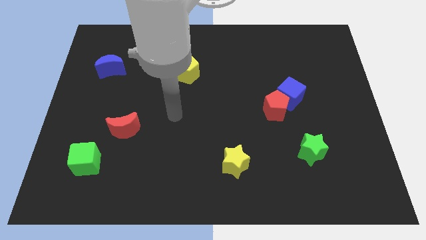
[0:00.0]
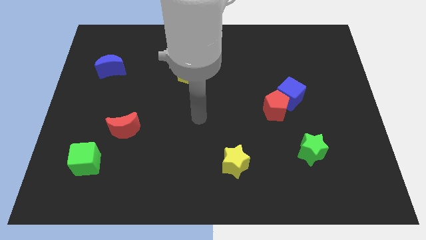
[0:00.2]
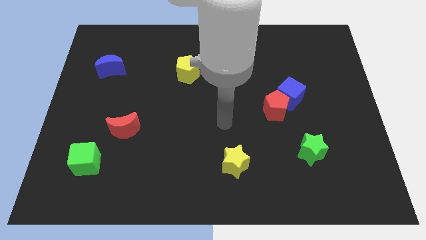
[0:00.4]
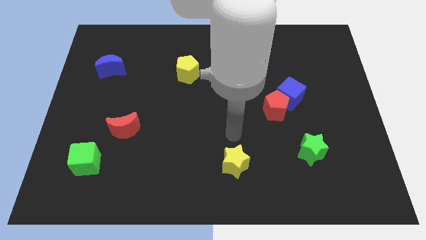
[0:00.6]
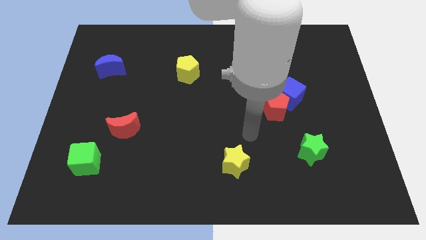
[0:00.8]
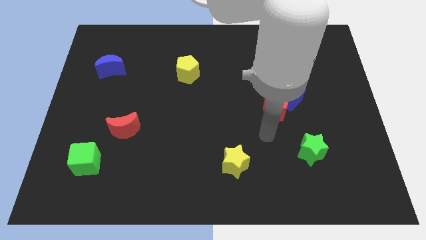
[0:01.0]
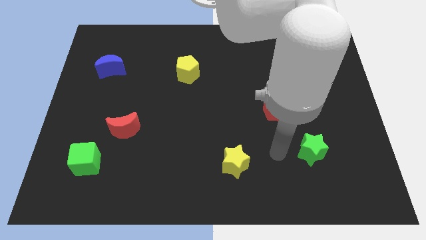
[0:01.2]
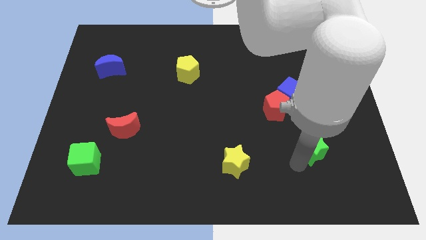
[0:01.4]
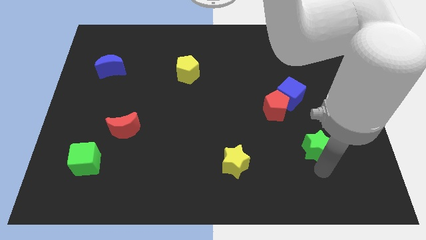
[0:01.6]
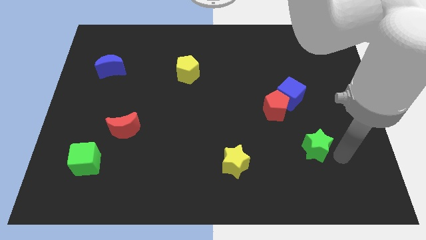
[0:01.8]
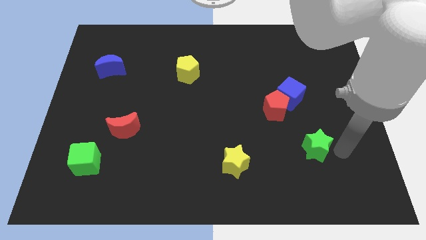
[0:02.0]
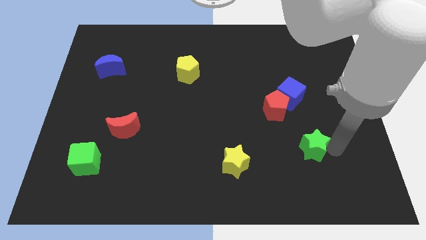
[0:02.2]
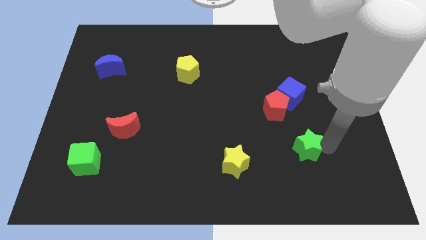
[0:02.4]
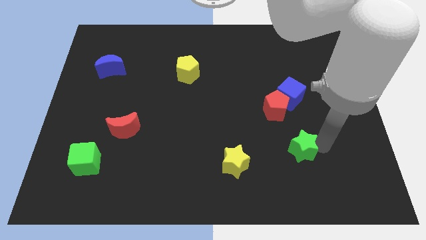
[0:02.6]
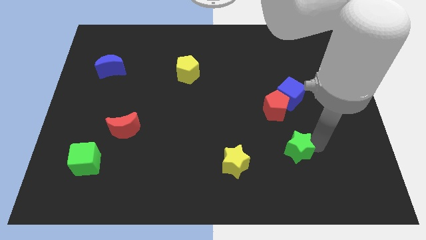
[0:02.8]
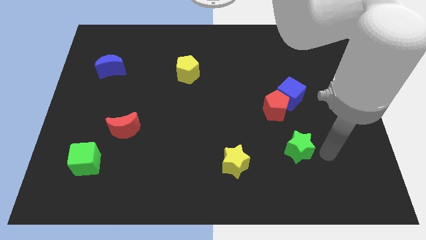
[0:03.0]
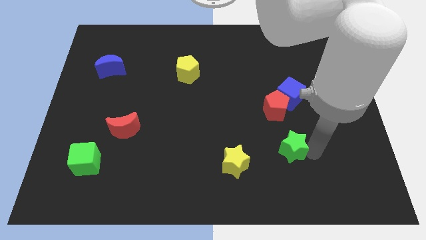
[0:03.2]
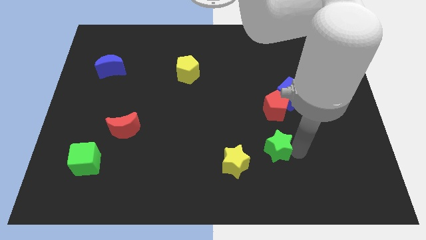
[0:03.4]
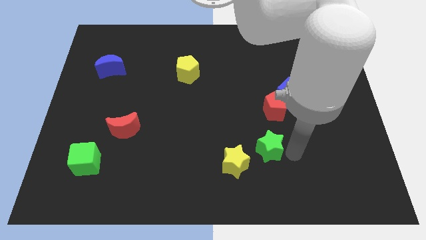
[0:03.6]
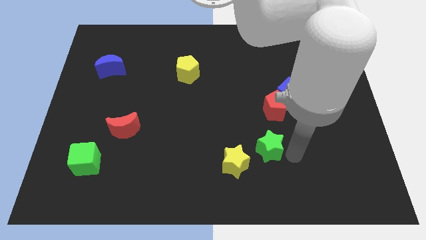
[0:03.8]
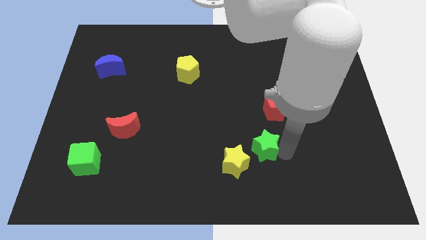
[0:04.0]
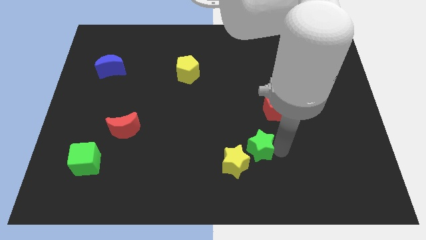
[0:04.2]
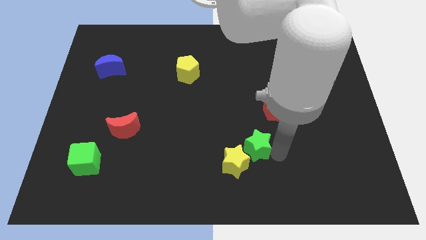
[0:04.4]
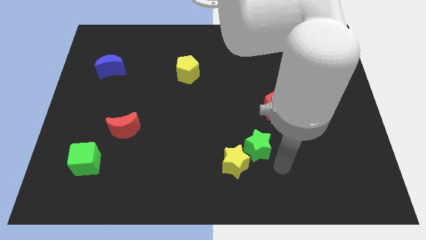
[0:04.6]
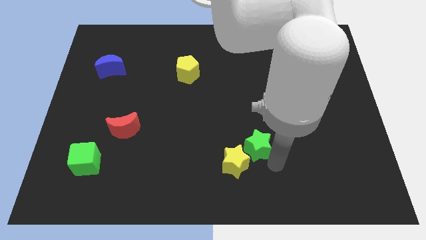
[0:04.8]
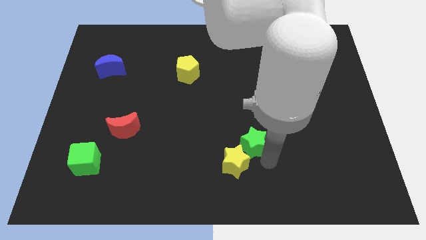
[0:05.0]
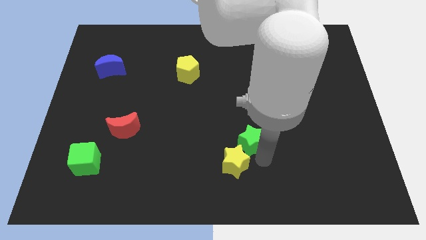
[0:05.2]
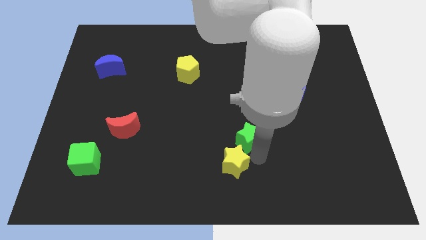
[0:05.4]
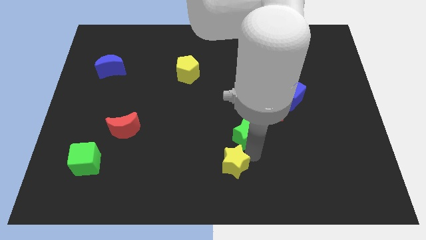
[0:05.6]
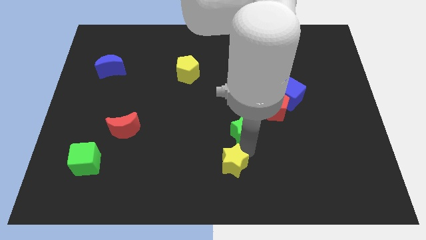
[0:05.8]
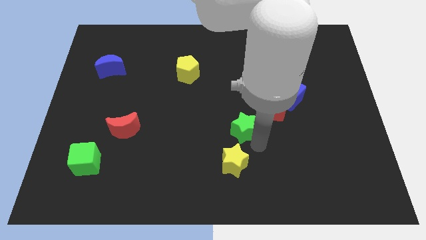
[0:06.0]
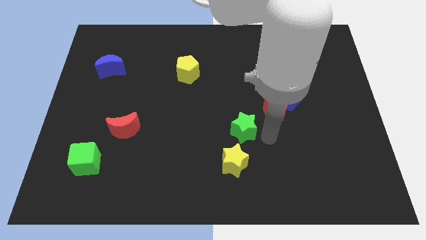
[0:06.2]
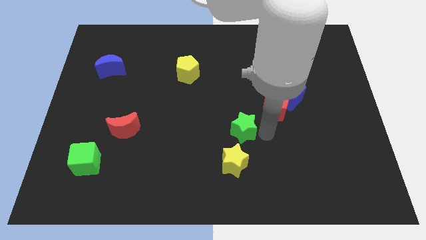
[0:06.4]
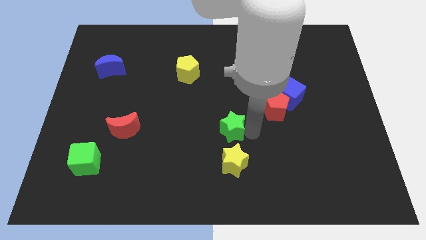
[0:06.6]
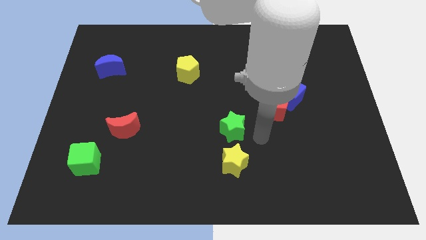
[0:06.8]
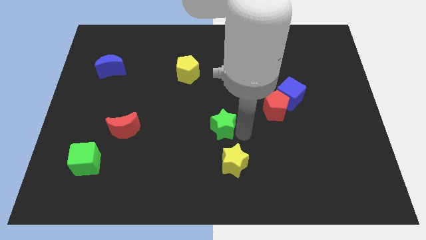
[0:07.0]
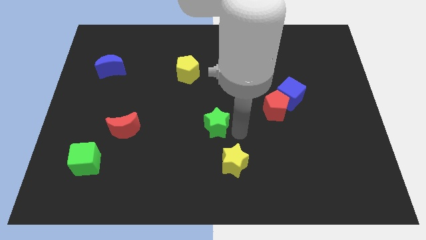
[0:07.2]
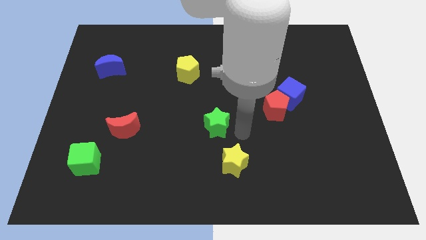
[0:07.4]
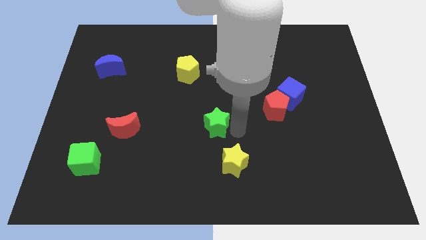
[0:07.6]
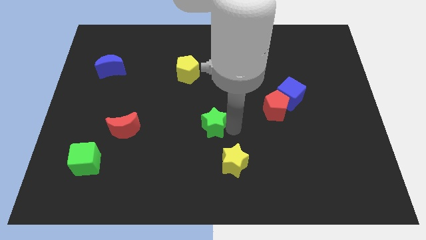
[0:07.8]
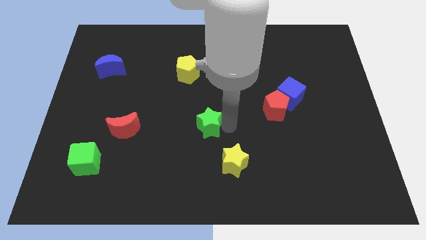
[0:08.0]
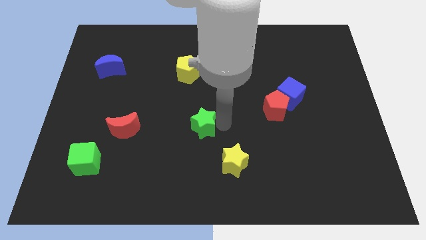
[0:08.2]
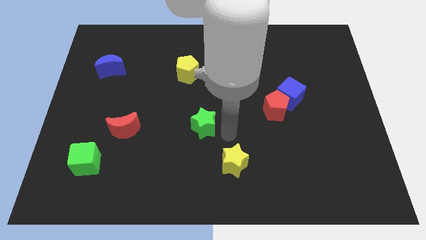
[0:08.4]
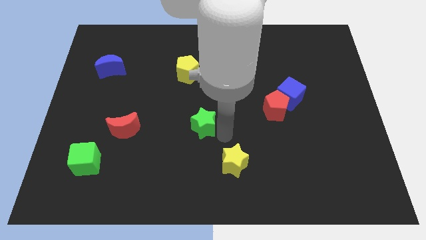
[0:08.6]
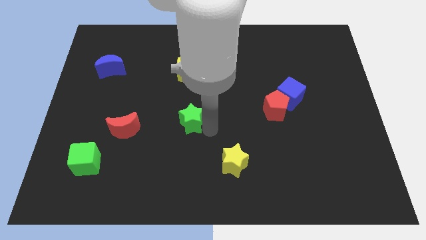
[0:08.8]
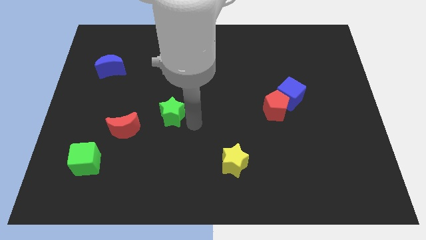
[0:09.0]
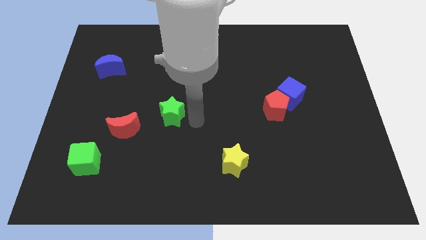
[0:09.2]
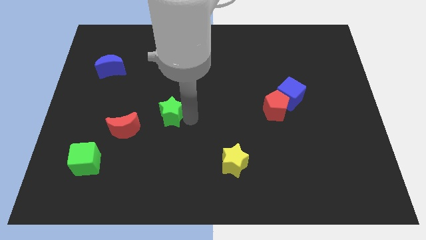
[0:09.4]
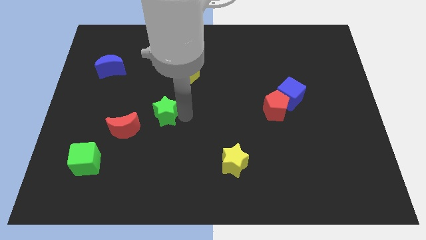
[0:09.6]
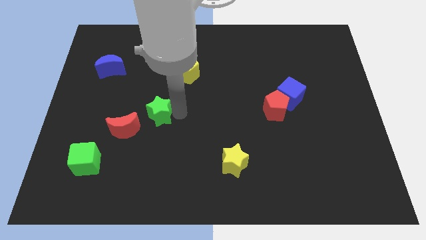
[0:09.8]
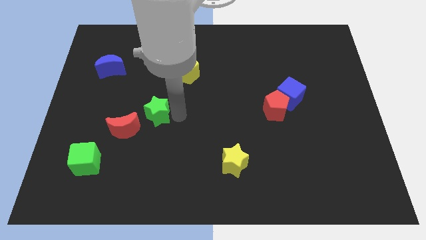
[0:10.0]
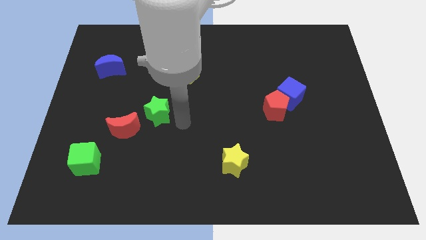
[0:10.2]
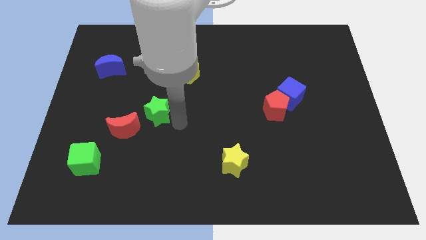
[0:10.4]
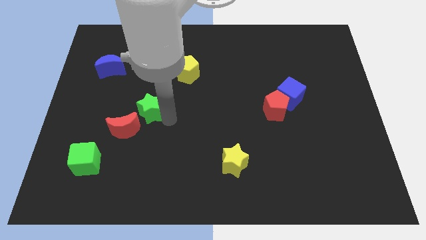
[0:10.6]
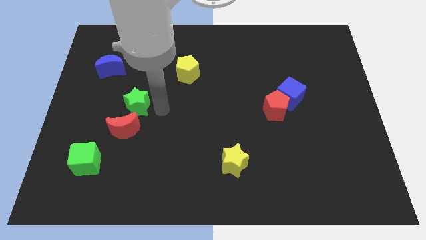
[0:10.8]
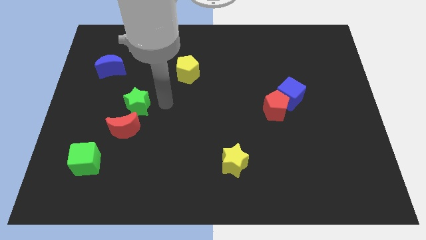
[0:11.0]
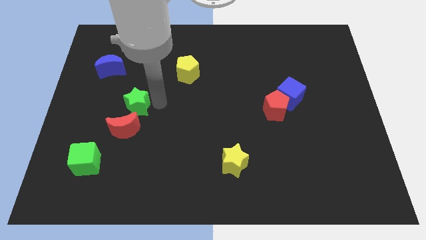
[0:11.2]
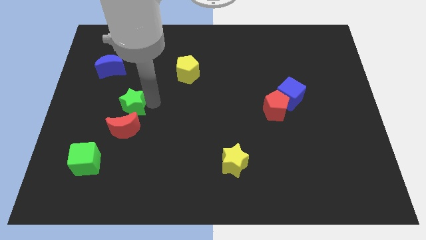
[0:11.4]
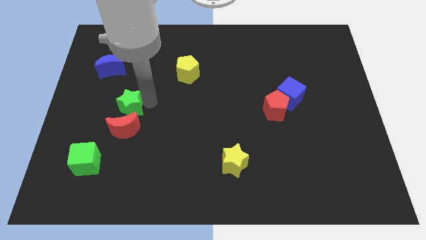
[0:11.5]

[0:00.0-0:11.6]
move the green star to the top left side of the red moon

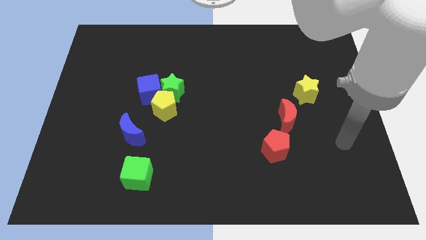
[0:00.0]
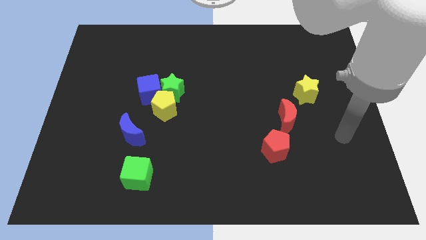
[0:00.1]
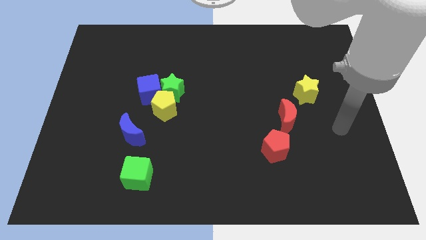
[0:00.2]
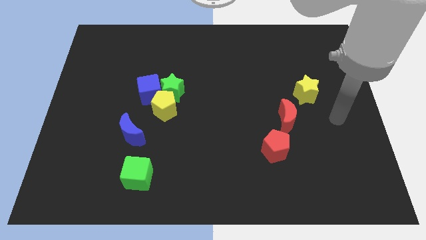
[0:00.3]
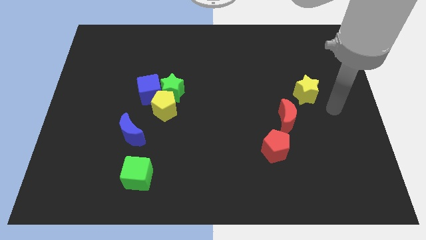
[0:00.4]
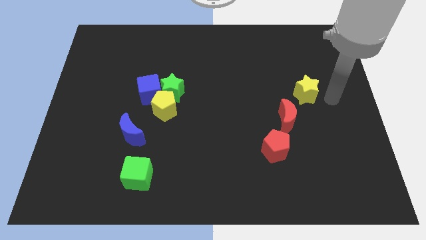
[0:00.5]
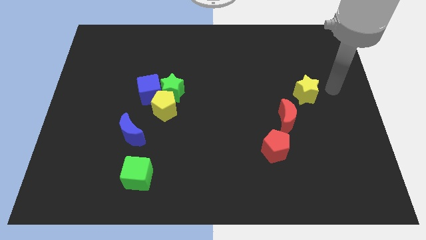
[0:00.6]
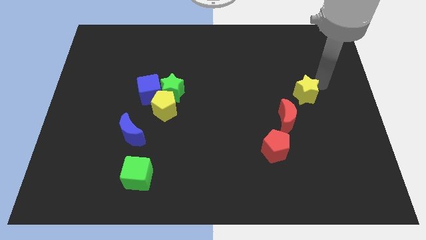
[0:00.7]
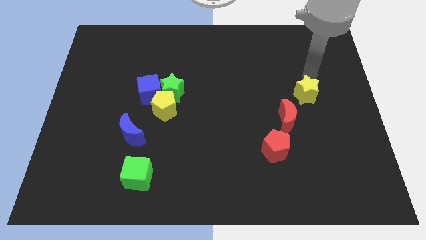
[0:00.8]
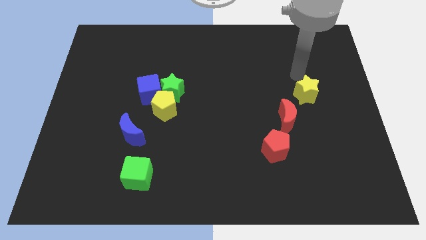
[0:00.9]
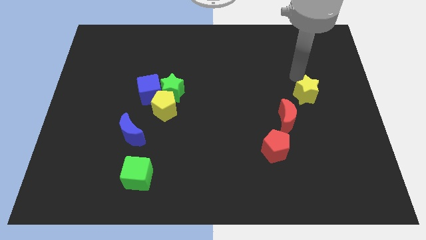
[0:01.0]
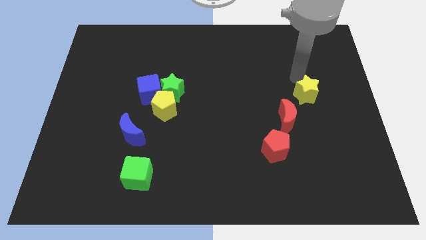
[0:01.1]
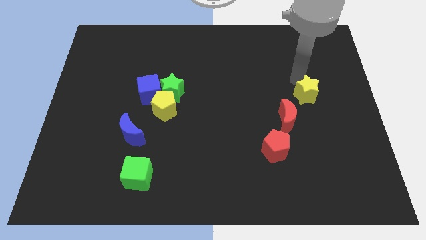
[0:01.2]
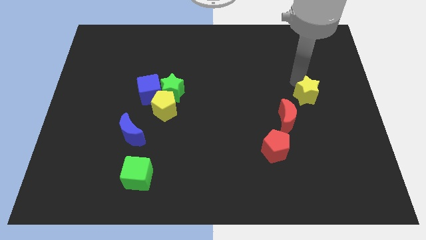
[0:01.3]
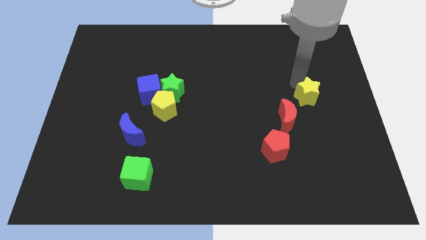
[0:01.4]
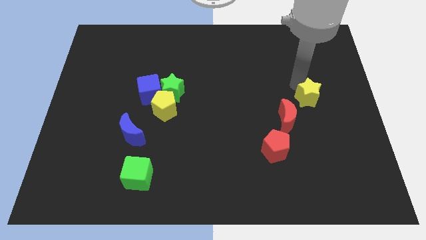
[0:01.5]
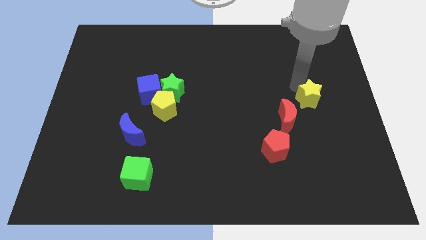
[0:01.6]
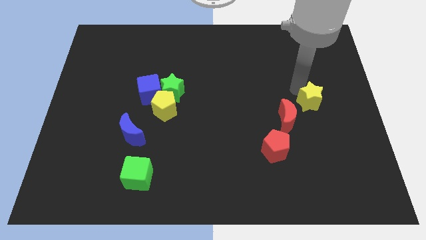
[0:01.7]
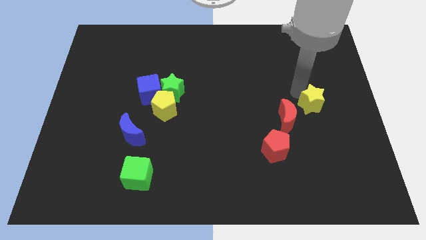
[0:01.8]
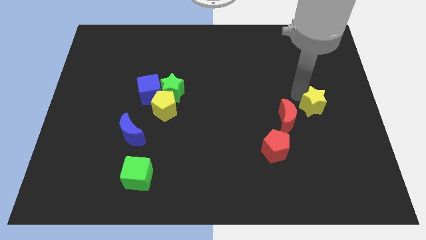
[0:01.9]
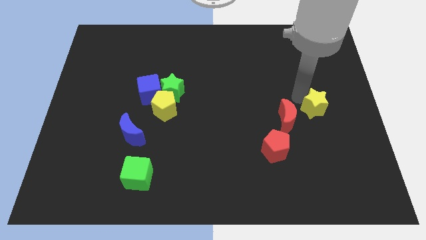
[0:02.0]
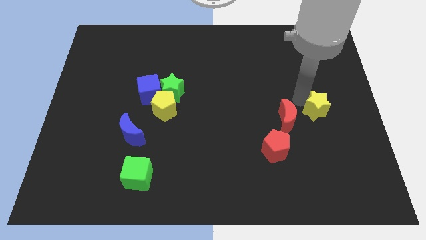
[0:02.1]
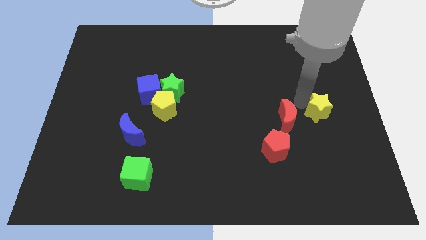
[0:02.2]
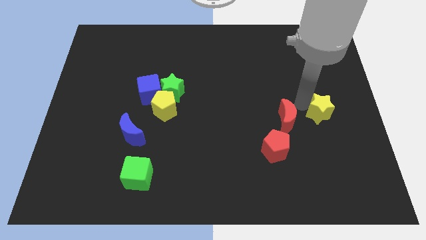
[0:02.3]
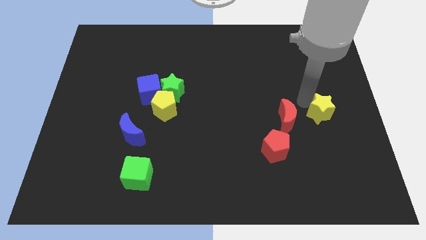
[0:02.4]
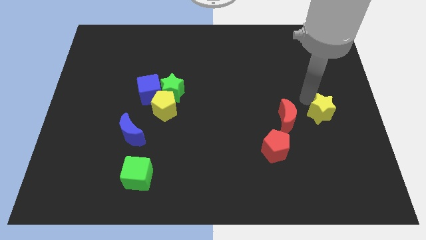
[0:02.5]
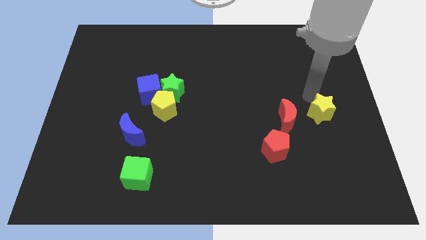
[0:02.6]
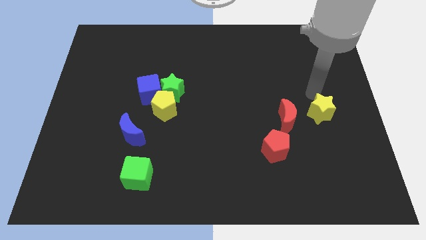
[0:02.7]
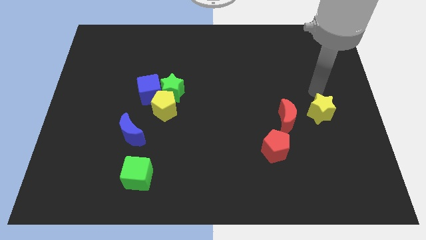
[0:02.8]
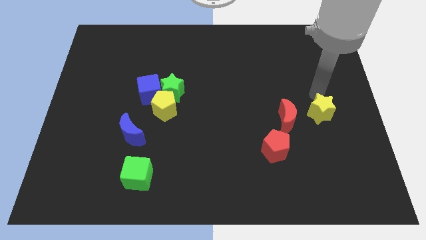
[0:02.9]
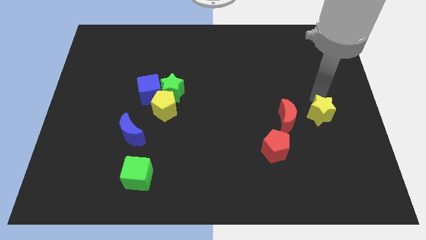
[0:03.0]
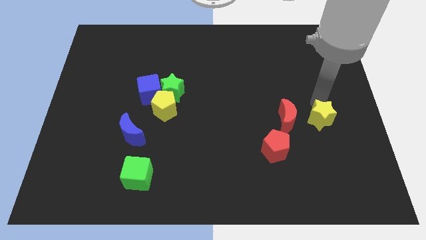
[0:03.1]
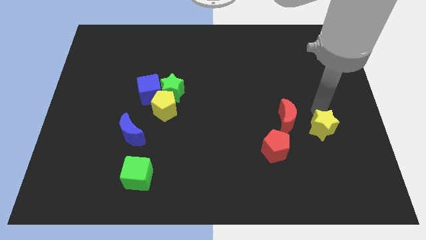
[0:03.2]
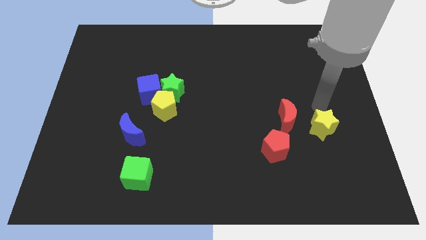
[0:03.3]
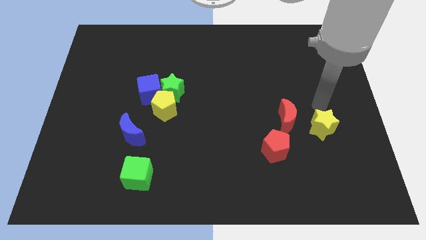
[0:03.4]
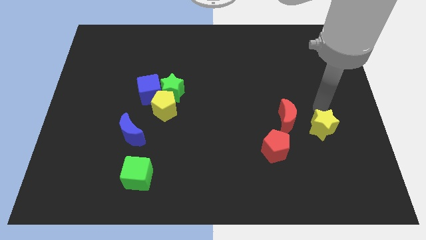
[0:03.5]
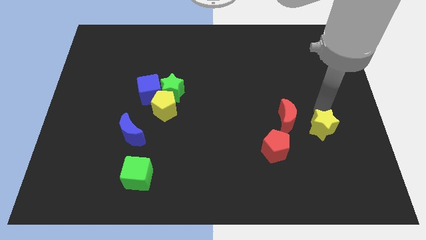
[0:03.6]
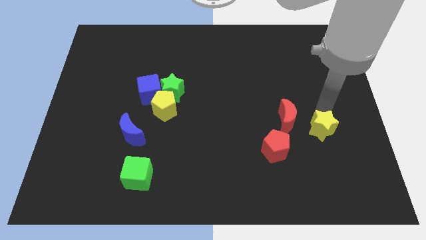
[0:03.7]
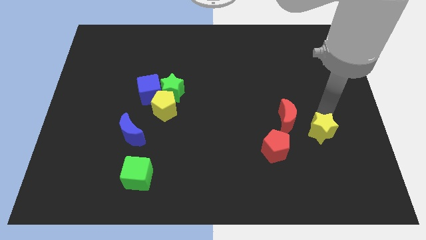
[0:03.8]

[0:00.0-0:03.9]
slide the yellow star right of the red pentagon
